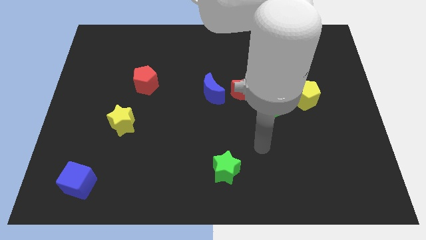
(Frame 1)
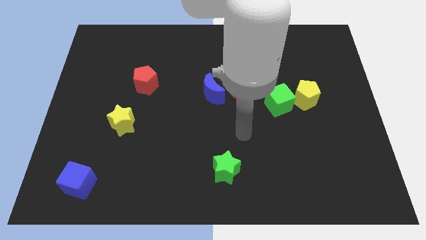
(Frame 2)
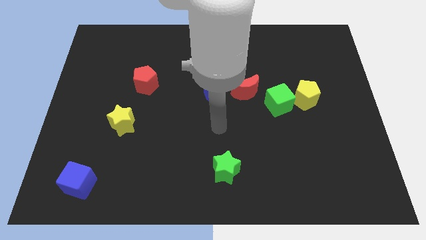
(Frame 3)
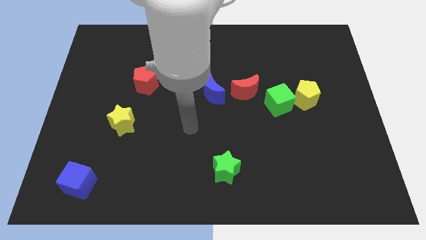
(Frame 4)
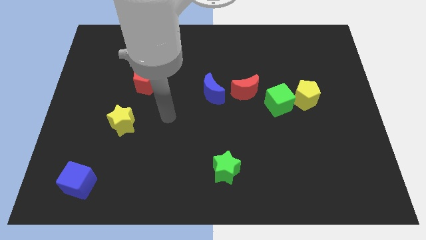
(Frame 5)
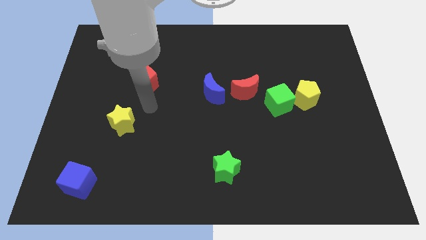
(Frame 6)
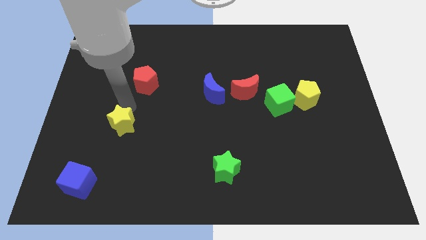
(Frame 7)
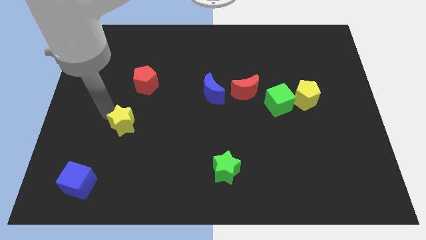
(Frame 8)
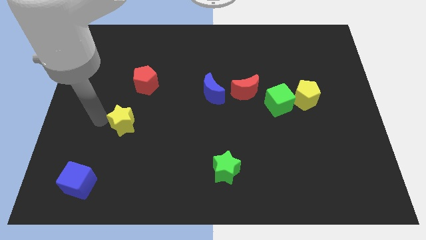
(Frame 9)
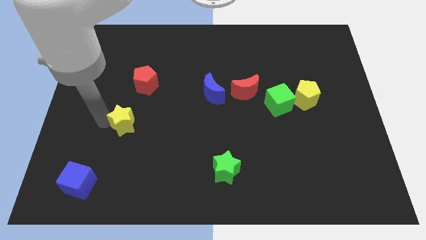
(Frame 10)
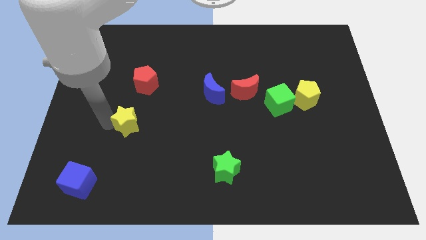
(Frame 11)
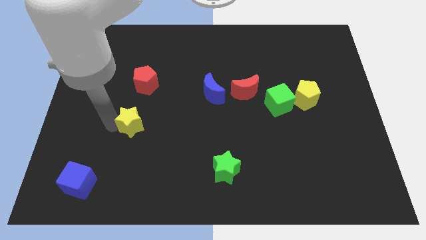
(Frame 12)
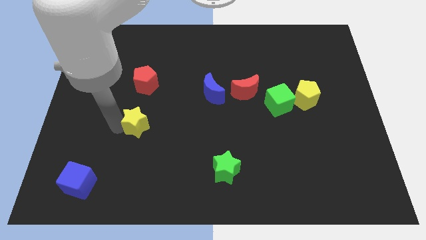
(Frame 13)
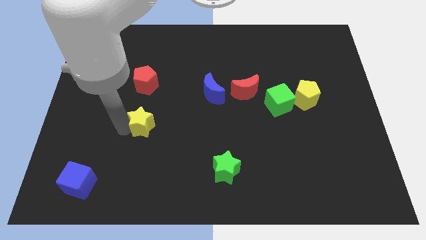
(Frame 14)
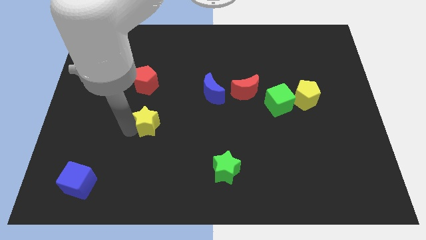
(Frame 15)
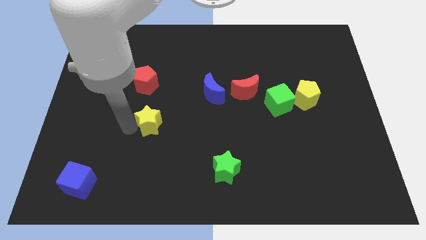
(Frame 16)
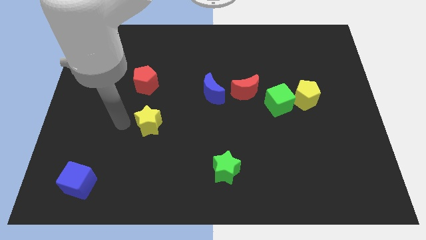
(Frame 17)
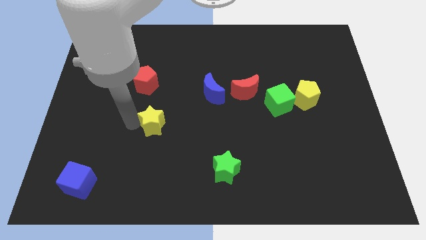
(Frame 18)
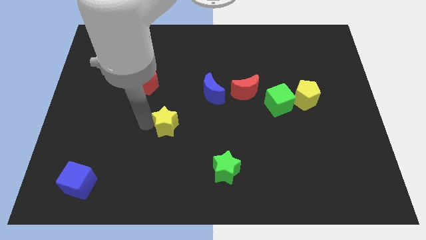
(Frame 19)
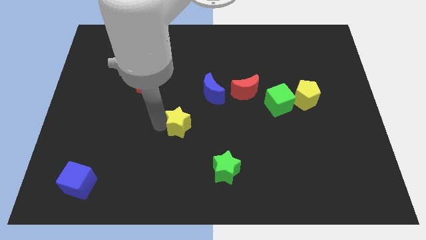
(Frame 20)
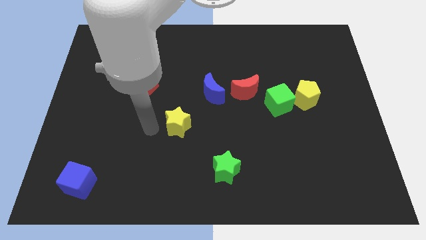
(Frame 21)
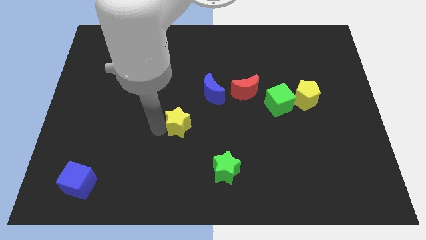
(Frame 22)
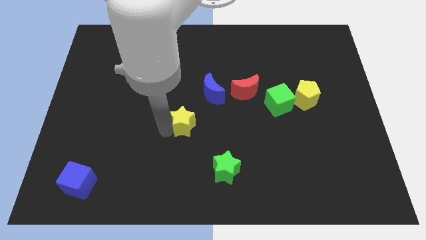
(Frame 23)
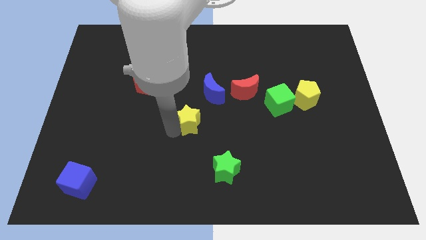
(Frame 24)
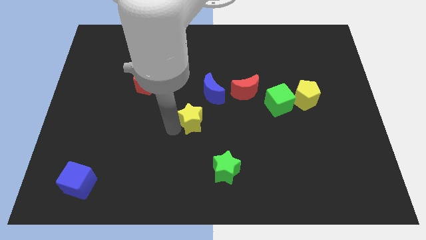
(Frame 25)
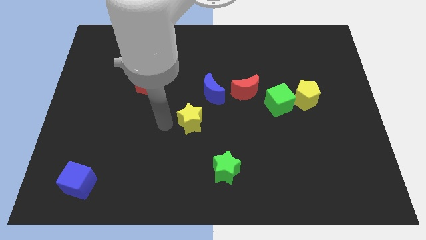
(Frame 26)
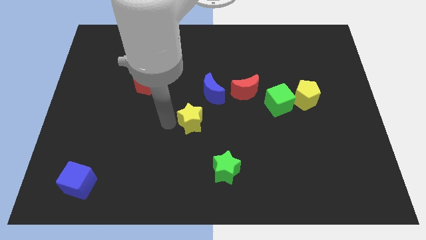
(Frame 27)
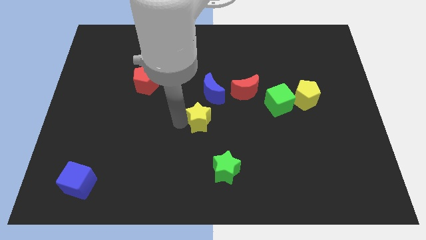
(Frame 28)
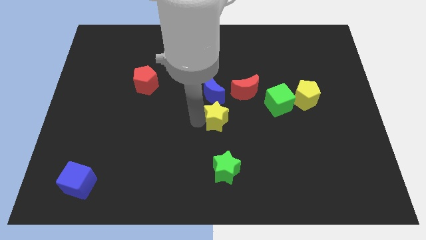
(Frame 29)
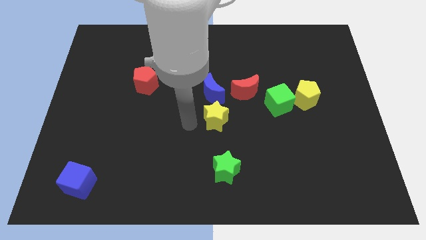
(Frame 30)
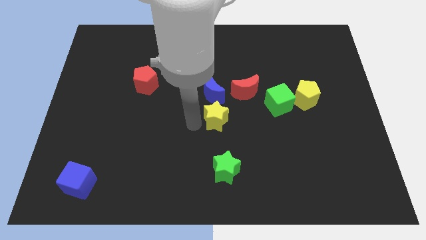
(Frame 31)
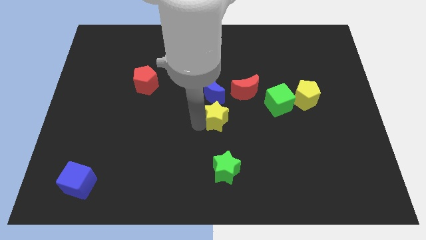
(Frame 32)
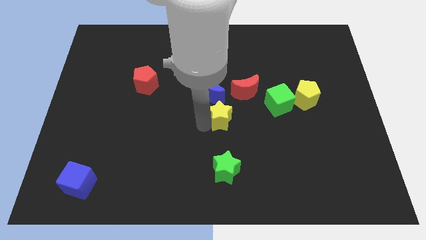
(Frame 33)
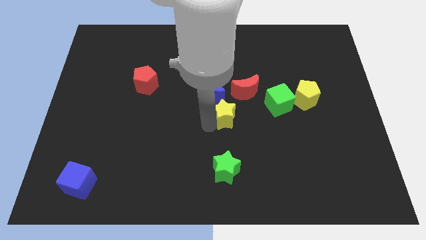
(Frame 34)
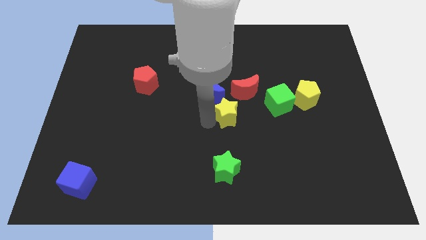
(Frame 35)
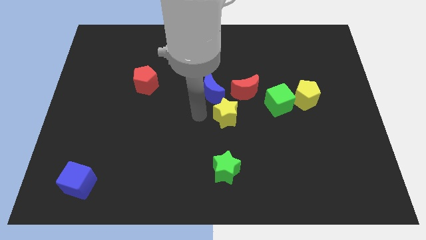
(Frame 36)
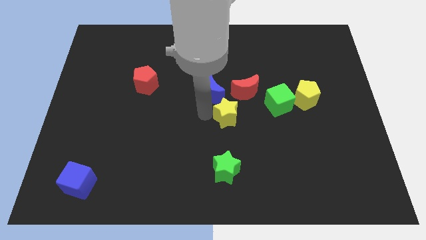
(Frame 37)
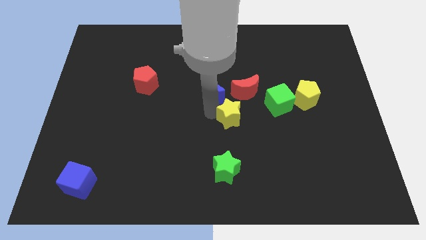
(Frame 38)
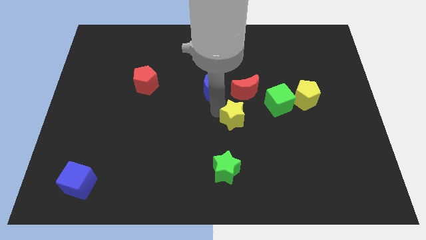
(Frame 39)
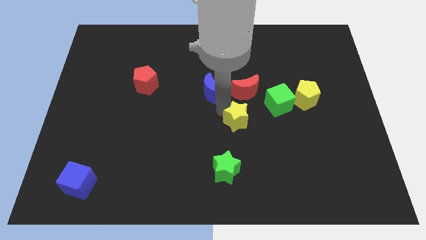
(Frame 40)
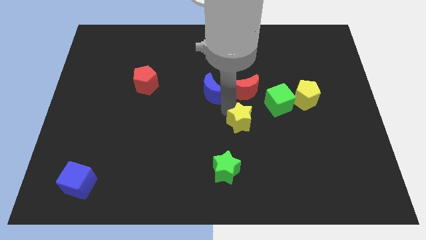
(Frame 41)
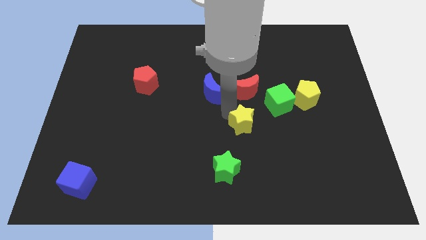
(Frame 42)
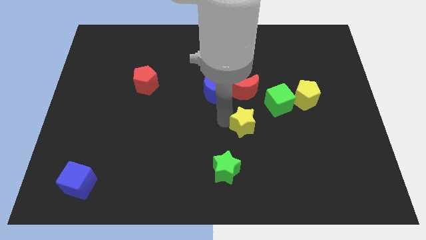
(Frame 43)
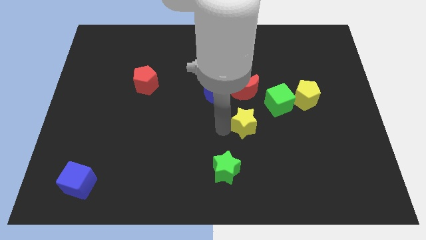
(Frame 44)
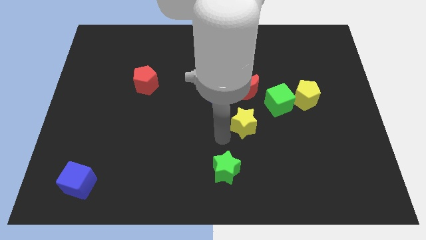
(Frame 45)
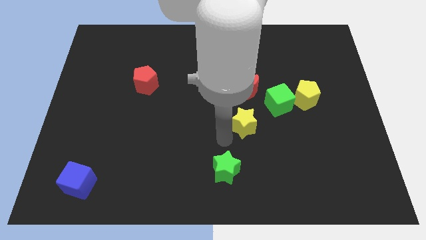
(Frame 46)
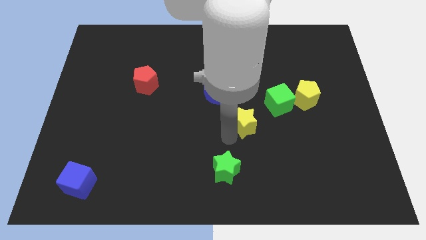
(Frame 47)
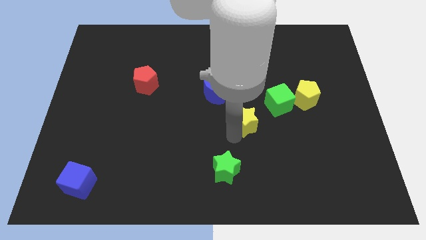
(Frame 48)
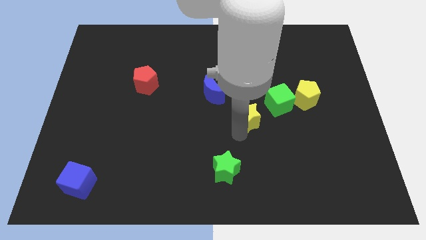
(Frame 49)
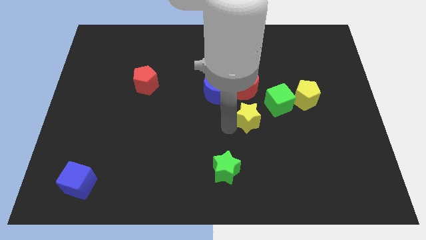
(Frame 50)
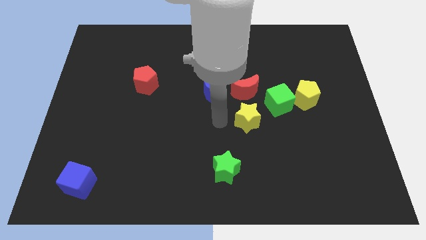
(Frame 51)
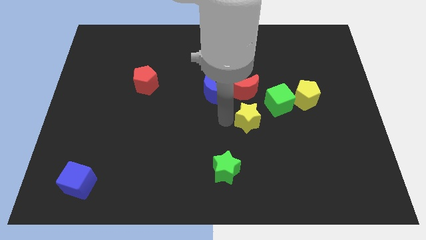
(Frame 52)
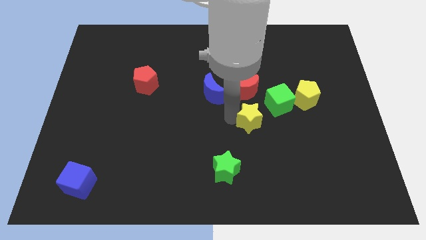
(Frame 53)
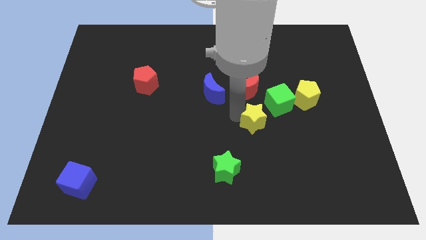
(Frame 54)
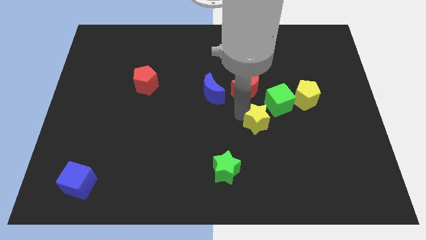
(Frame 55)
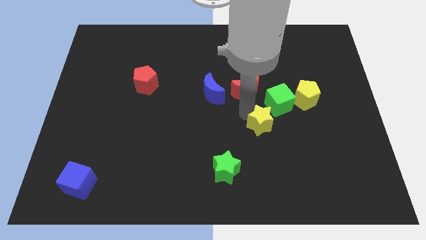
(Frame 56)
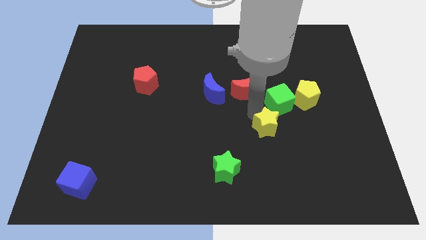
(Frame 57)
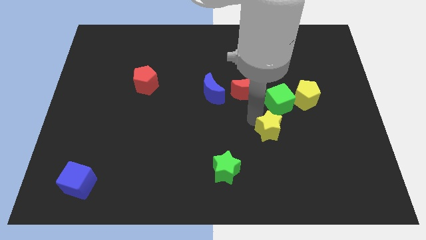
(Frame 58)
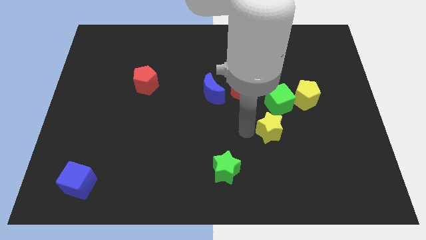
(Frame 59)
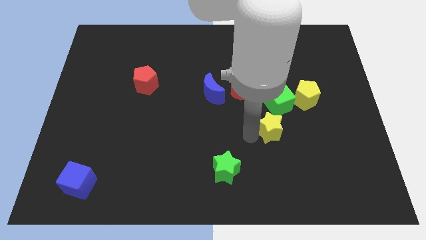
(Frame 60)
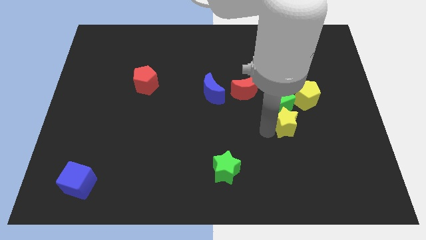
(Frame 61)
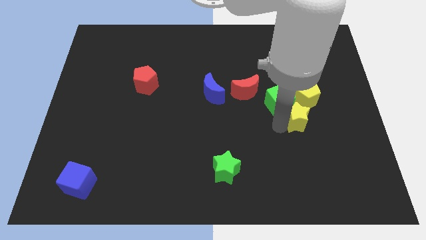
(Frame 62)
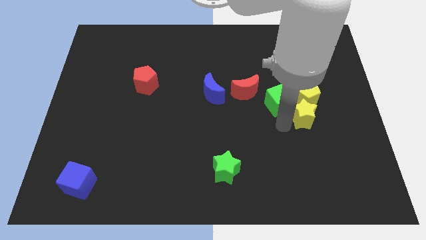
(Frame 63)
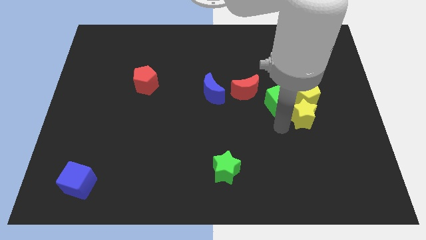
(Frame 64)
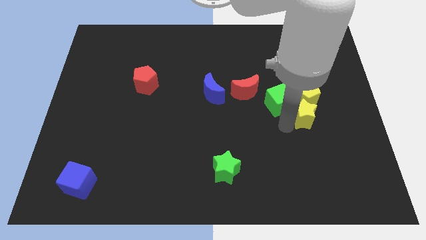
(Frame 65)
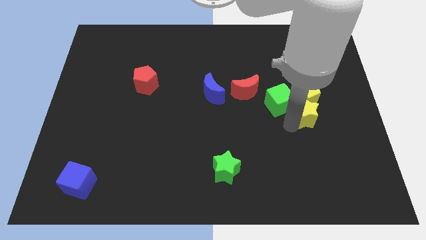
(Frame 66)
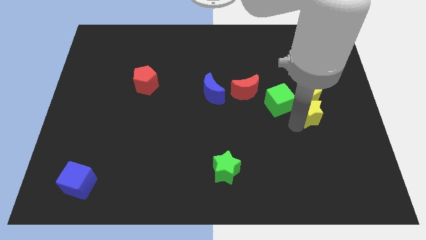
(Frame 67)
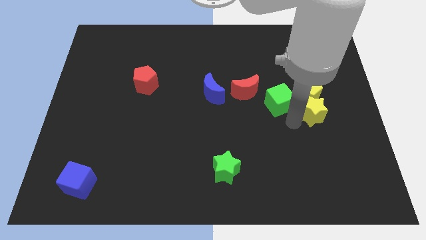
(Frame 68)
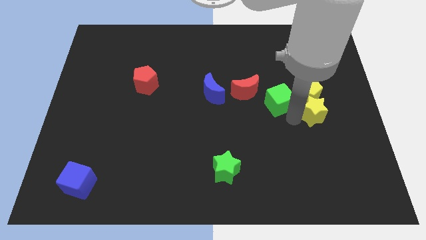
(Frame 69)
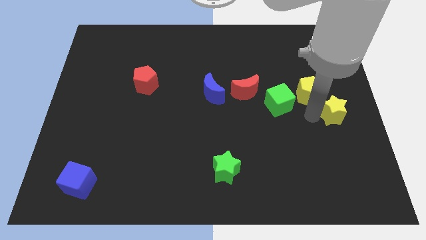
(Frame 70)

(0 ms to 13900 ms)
put the yellow star to the right side of the board
